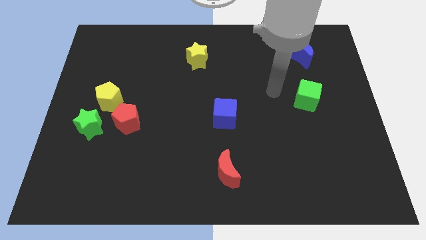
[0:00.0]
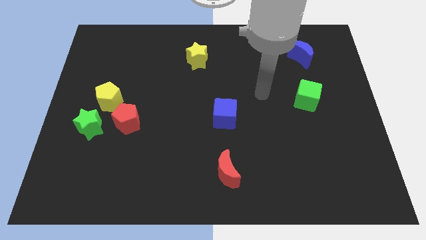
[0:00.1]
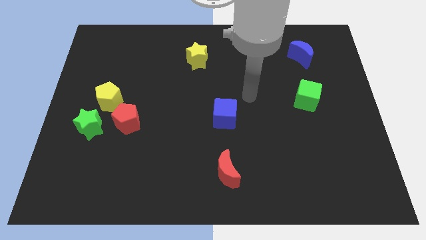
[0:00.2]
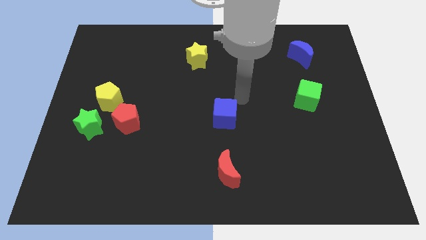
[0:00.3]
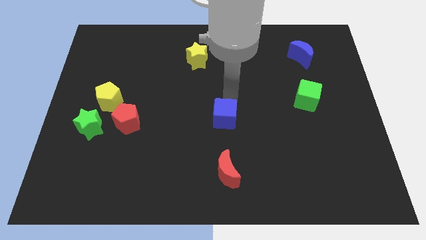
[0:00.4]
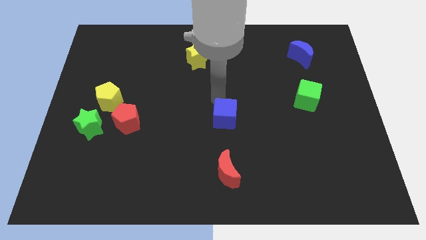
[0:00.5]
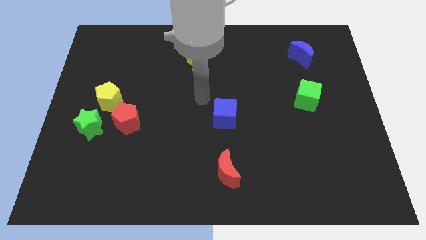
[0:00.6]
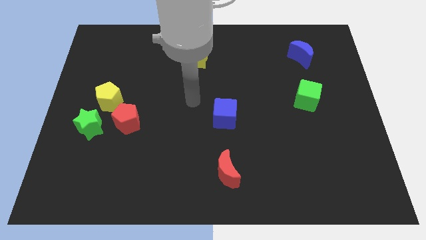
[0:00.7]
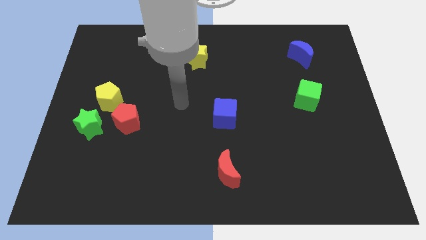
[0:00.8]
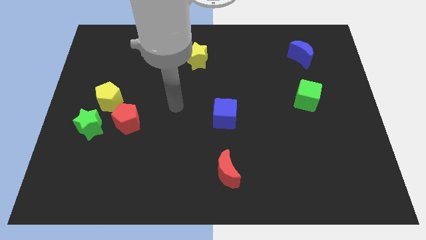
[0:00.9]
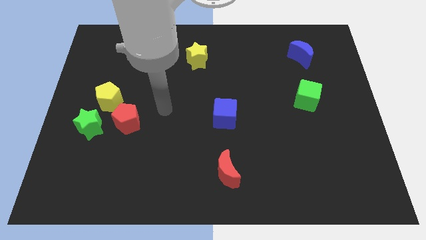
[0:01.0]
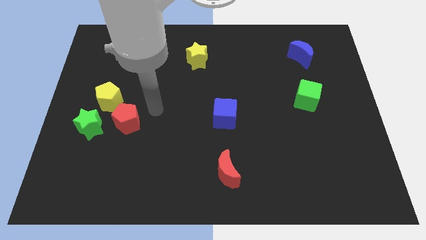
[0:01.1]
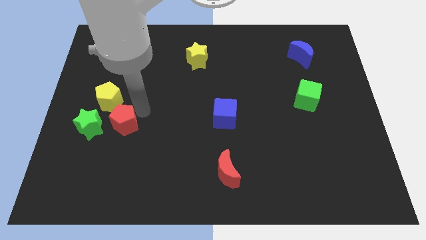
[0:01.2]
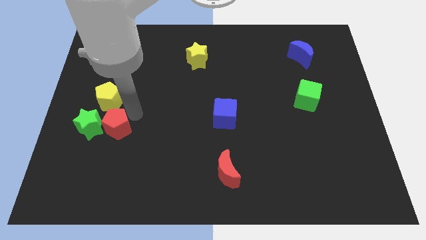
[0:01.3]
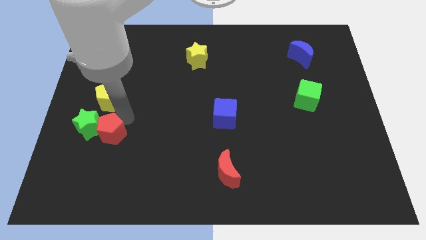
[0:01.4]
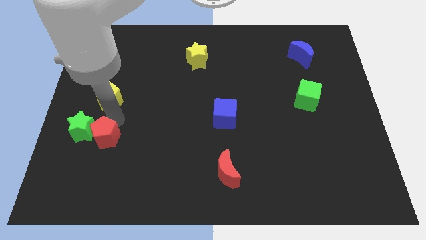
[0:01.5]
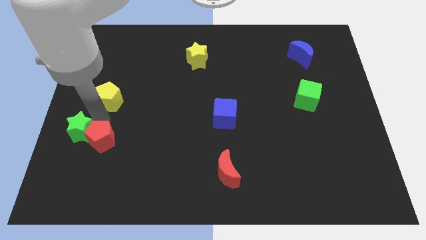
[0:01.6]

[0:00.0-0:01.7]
separate the yellow pentagon from the red pentagon and green star

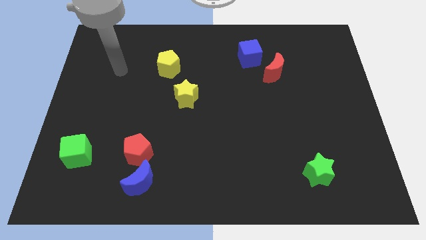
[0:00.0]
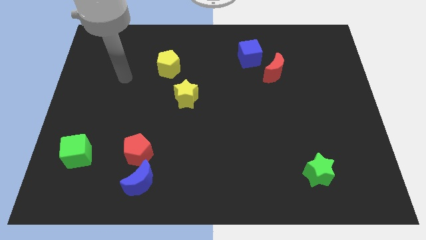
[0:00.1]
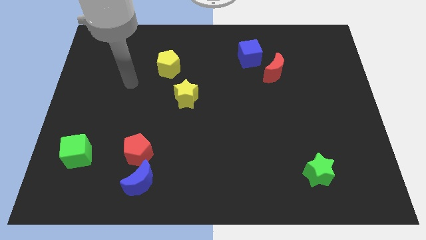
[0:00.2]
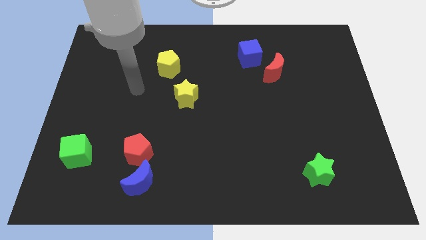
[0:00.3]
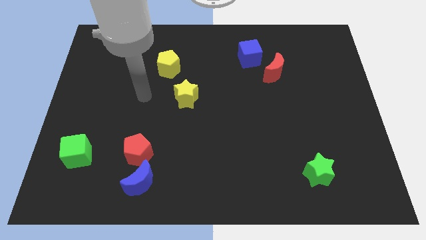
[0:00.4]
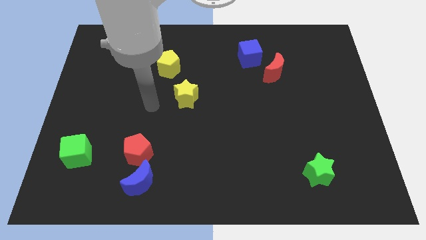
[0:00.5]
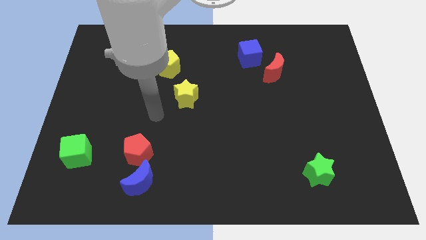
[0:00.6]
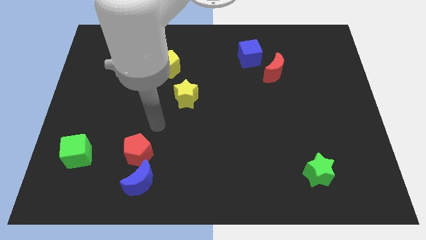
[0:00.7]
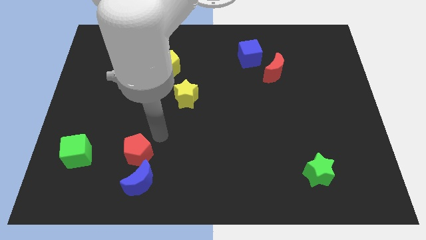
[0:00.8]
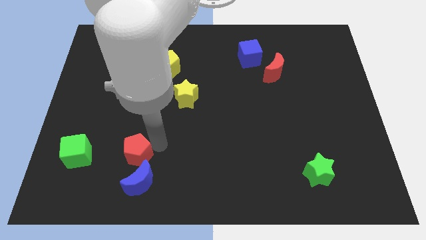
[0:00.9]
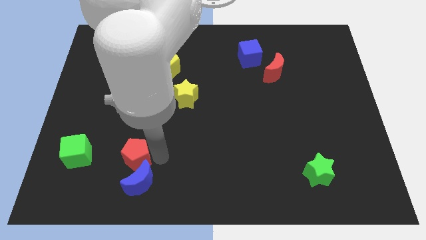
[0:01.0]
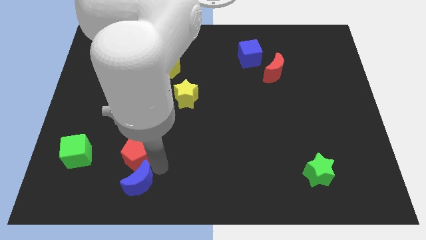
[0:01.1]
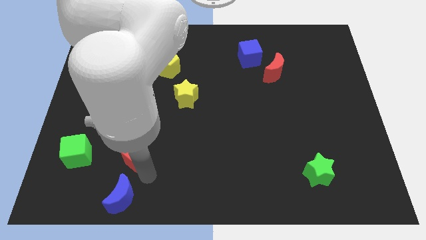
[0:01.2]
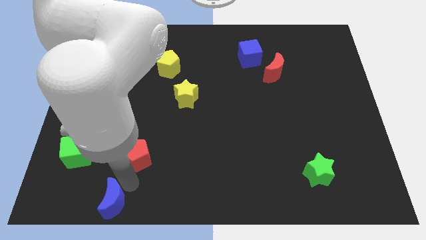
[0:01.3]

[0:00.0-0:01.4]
move the red pentagon away from the blue moon

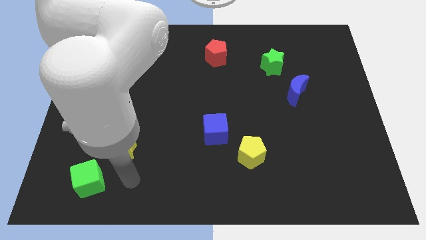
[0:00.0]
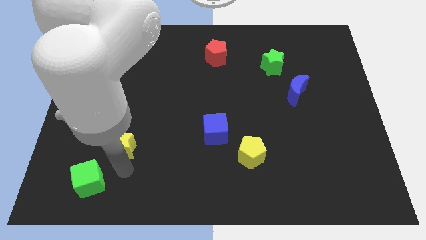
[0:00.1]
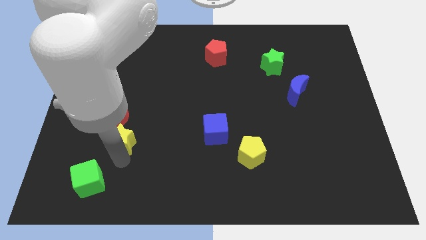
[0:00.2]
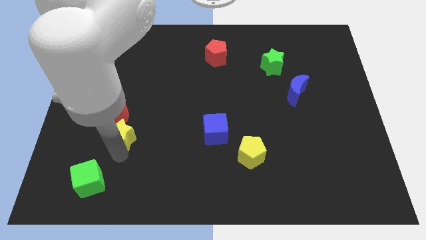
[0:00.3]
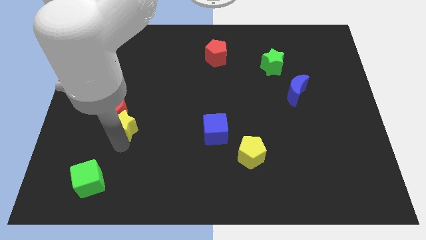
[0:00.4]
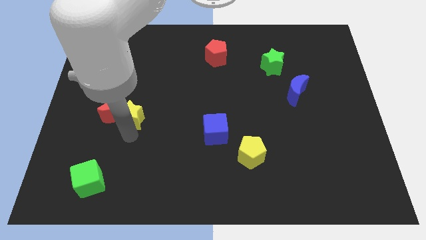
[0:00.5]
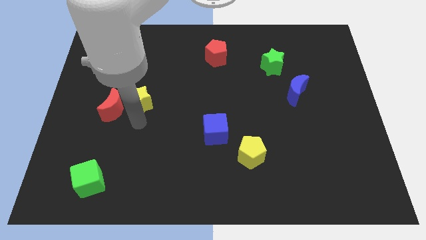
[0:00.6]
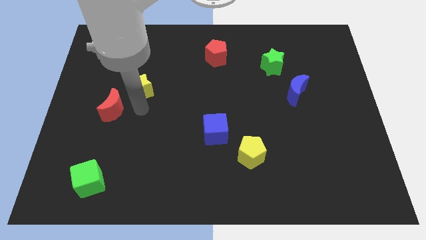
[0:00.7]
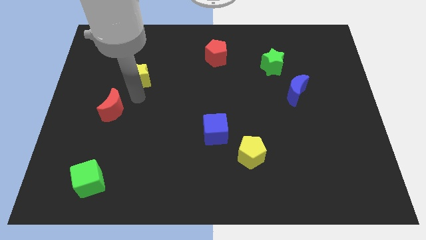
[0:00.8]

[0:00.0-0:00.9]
move the red moon away from the yellow star

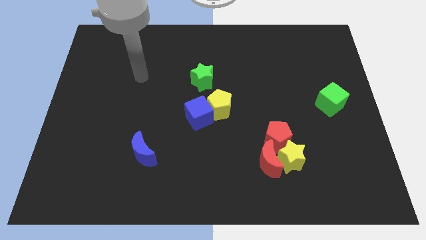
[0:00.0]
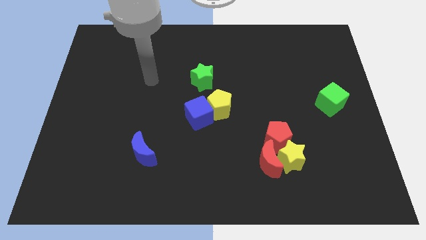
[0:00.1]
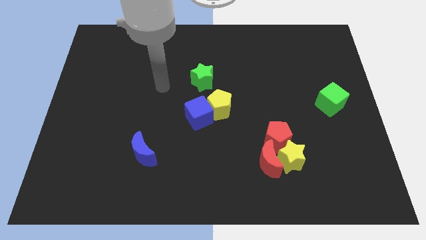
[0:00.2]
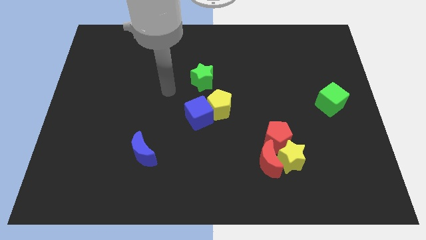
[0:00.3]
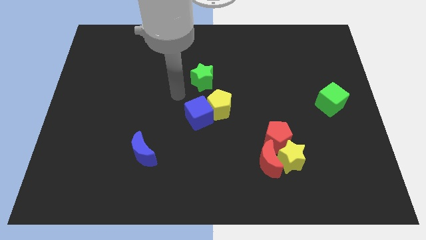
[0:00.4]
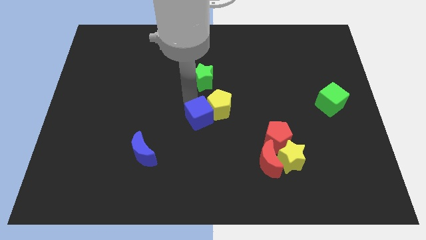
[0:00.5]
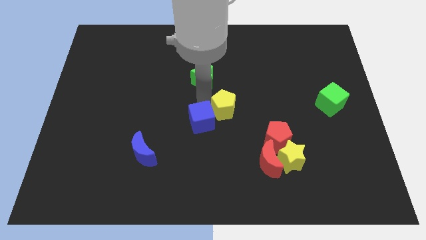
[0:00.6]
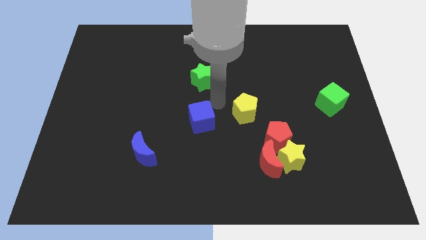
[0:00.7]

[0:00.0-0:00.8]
separate the blue cube from the yellow pentagon

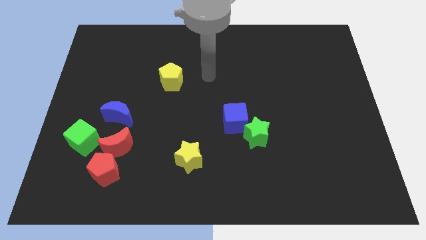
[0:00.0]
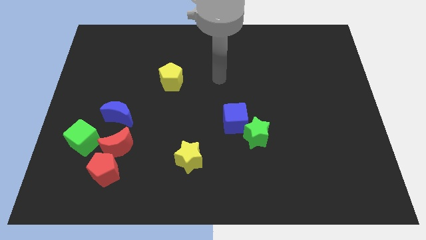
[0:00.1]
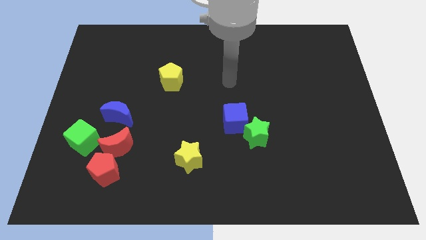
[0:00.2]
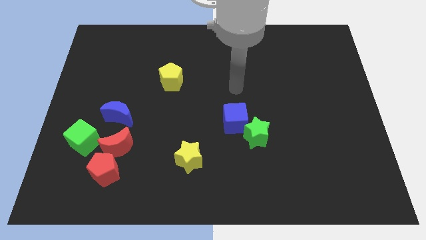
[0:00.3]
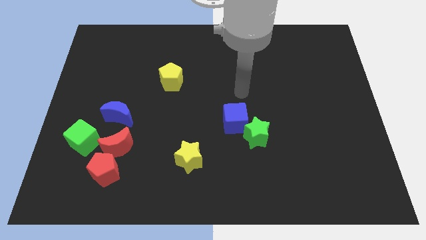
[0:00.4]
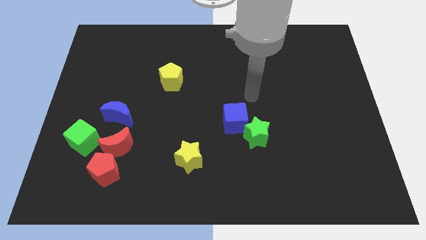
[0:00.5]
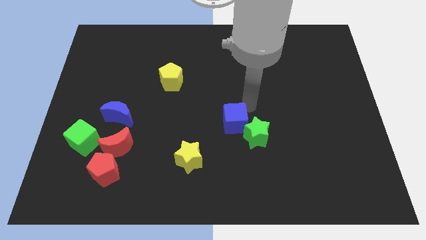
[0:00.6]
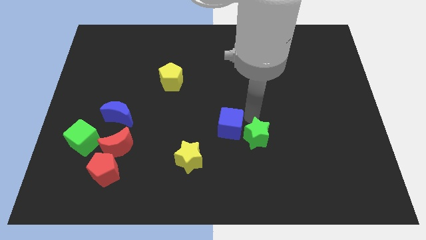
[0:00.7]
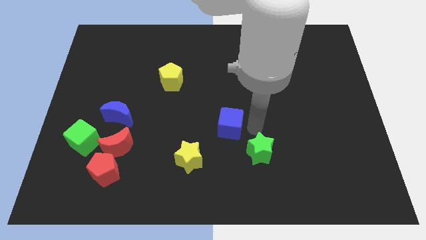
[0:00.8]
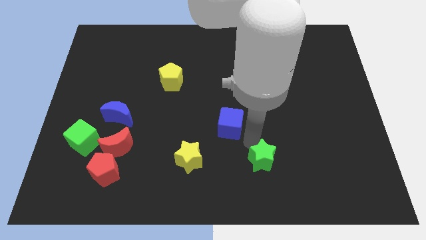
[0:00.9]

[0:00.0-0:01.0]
move the blue cube away from the green star

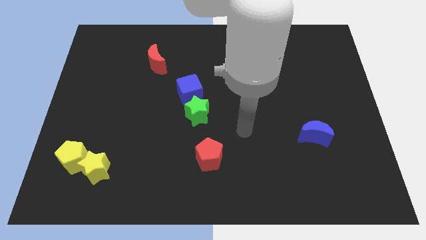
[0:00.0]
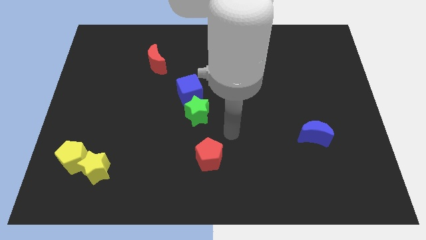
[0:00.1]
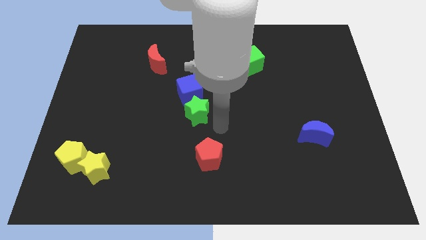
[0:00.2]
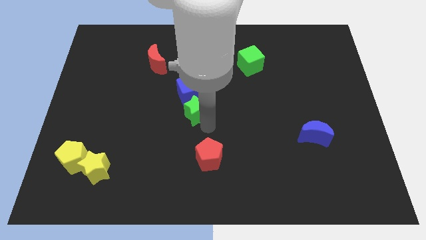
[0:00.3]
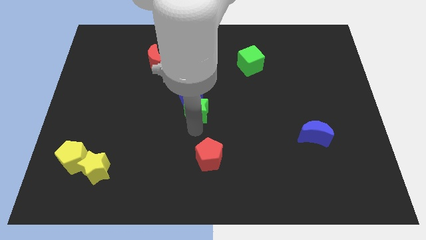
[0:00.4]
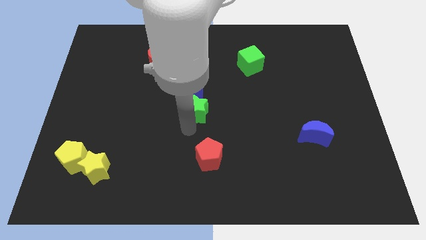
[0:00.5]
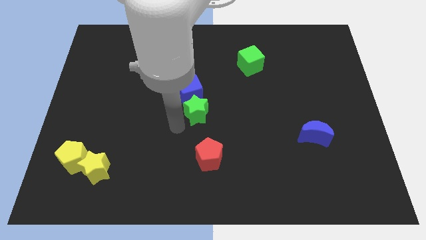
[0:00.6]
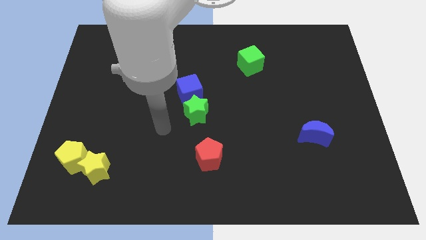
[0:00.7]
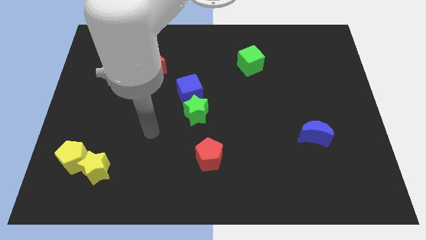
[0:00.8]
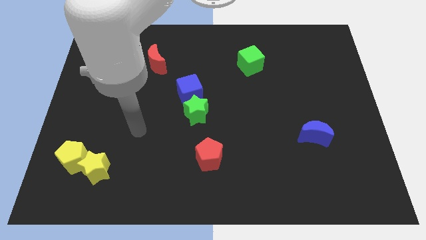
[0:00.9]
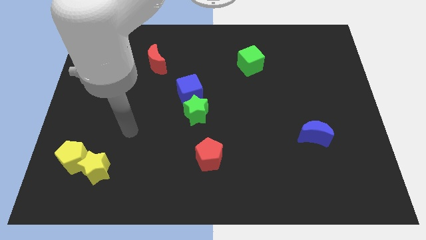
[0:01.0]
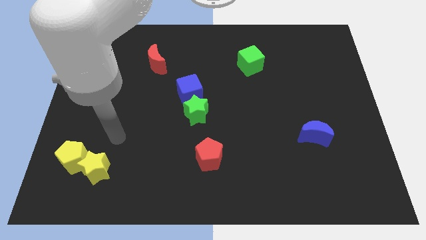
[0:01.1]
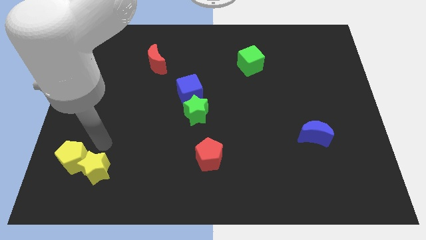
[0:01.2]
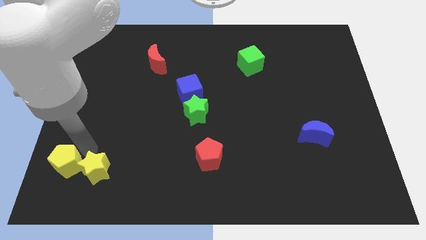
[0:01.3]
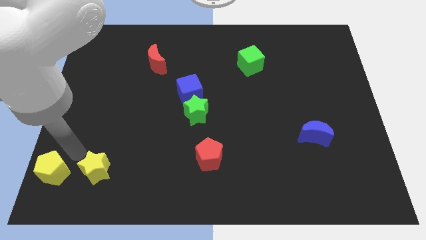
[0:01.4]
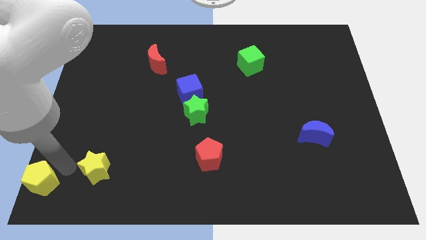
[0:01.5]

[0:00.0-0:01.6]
pull the yellow star apart from the yellow pentagon

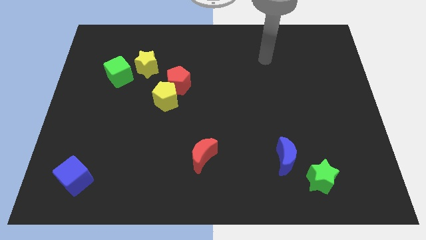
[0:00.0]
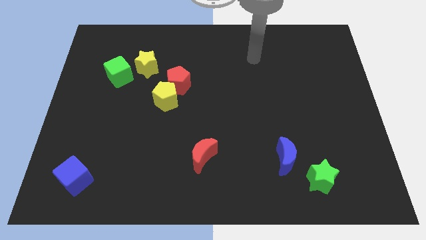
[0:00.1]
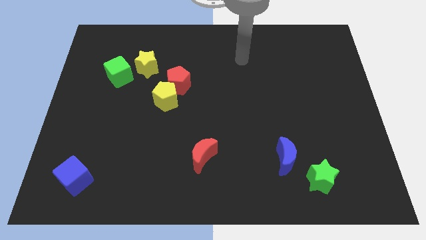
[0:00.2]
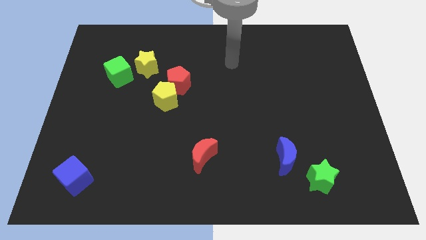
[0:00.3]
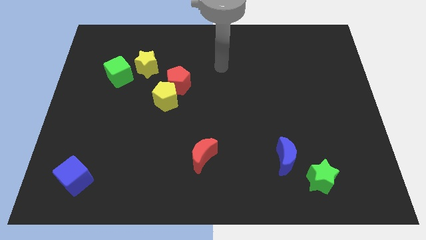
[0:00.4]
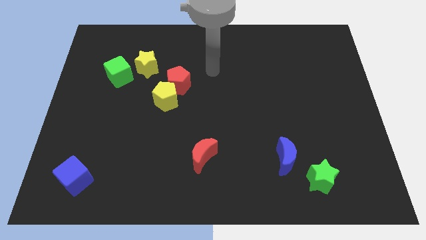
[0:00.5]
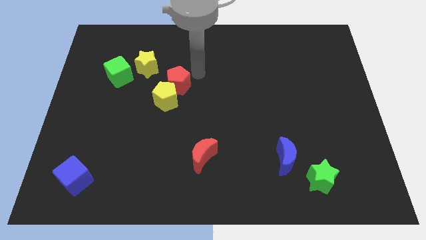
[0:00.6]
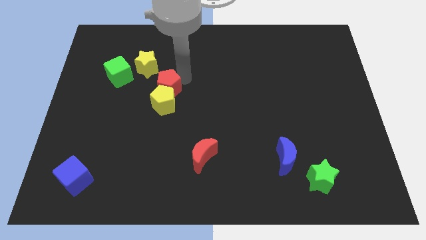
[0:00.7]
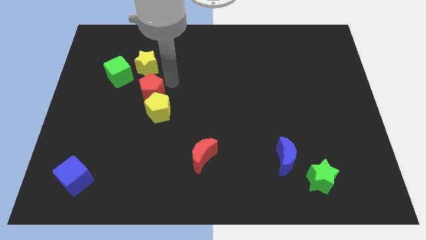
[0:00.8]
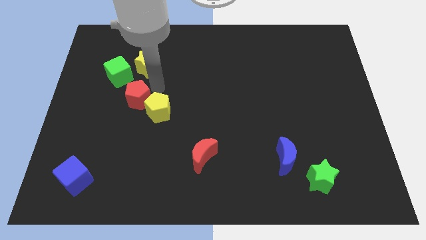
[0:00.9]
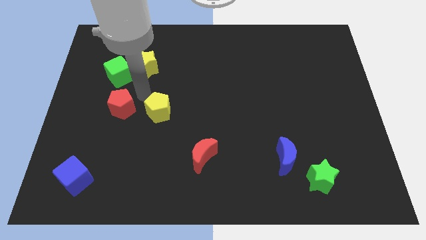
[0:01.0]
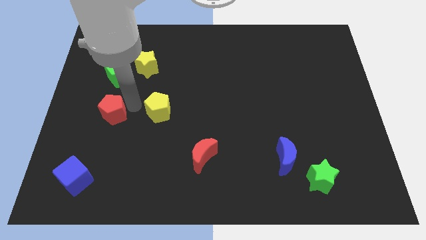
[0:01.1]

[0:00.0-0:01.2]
pull the yellow pentagon apart from the red pentagon

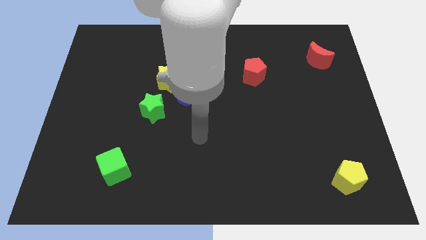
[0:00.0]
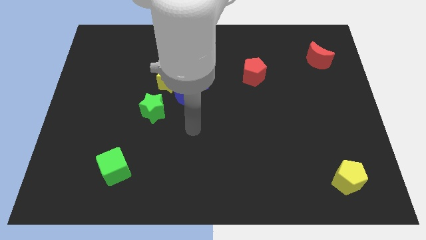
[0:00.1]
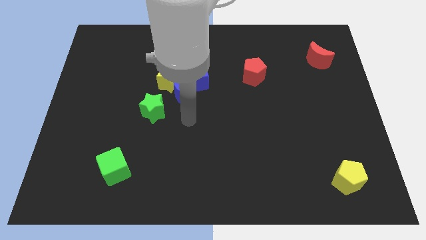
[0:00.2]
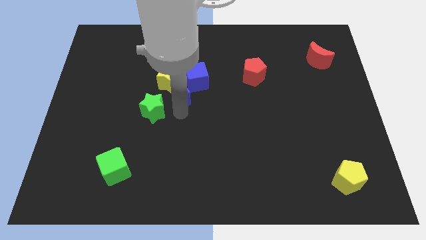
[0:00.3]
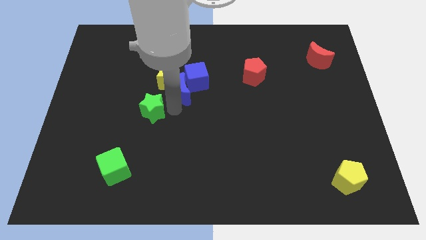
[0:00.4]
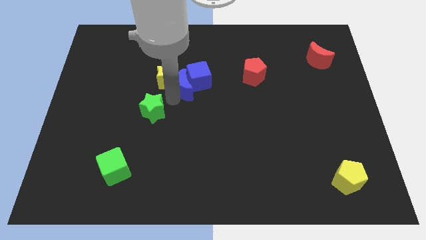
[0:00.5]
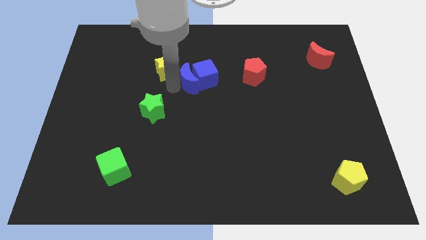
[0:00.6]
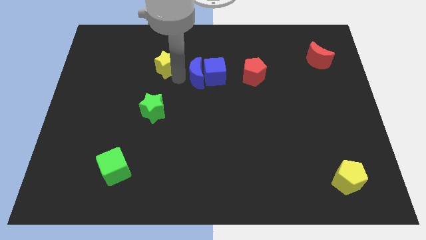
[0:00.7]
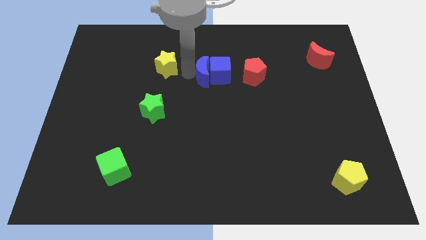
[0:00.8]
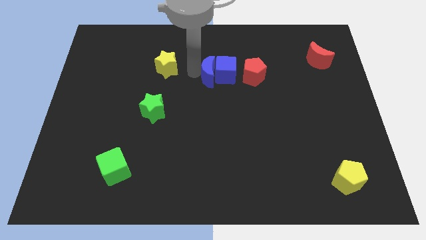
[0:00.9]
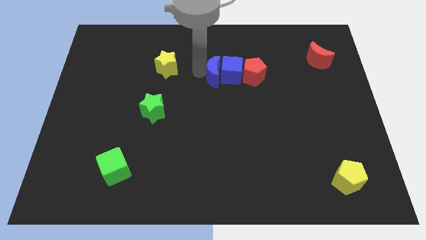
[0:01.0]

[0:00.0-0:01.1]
separate the blue cube from the blue moon and yellow star
